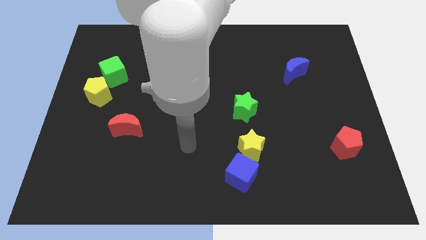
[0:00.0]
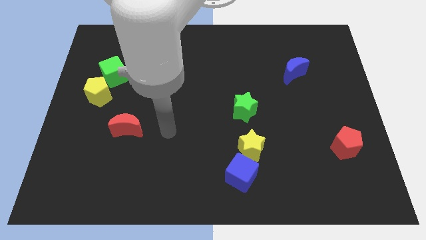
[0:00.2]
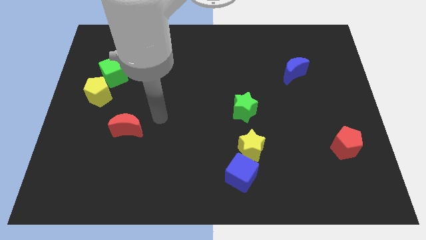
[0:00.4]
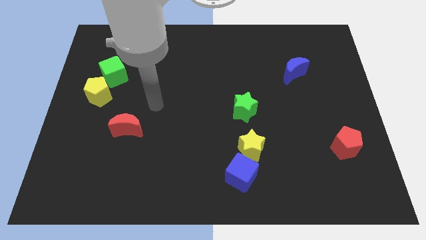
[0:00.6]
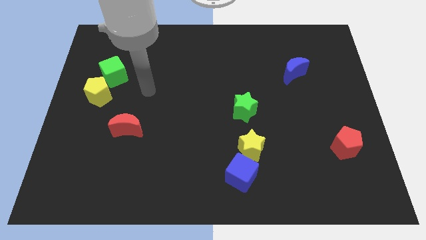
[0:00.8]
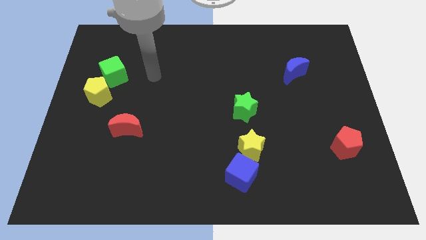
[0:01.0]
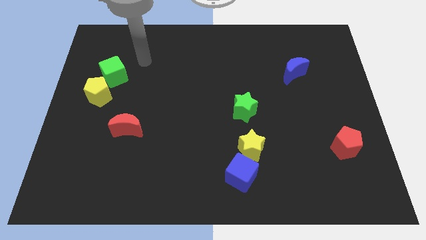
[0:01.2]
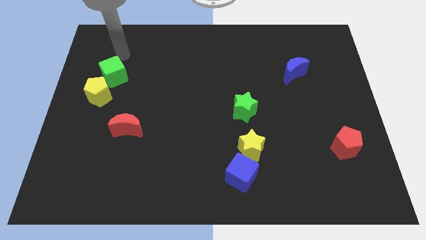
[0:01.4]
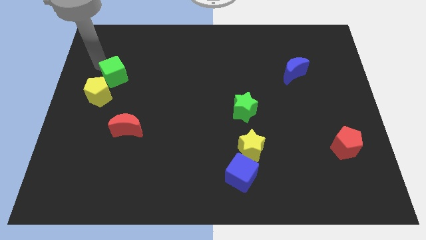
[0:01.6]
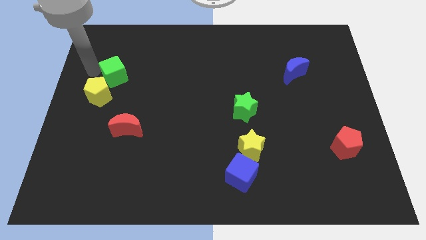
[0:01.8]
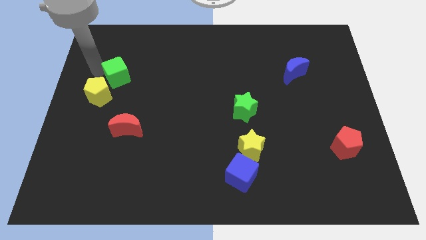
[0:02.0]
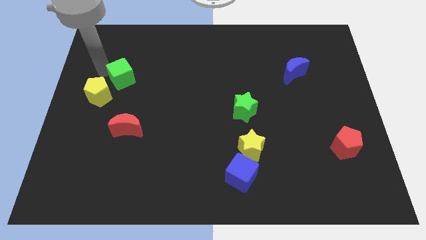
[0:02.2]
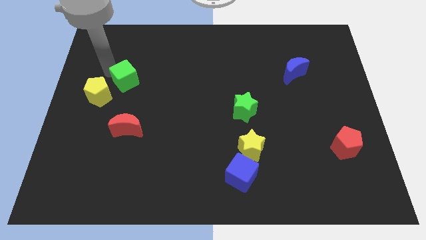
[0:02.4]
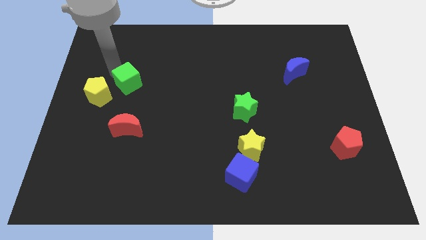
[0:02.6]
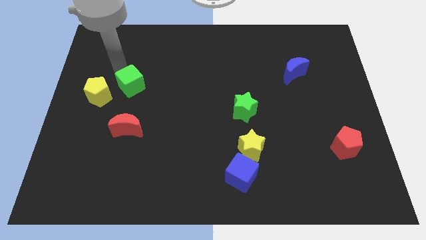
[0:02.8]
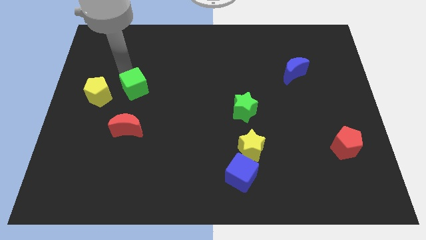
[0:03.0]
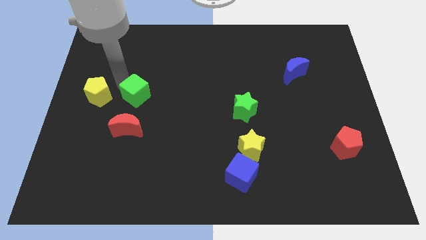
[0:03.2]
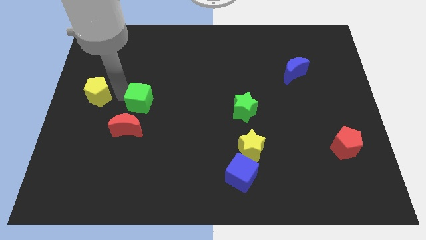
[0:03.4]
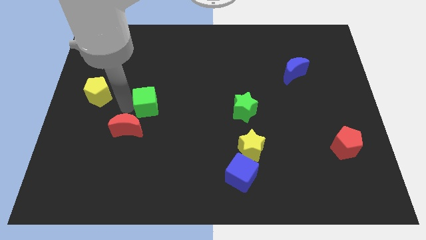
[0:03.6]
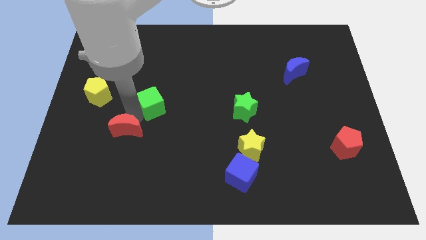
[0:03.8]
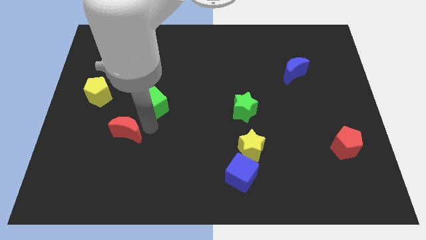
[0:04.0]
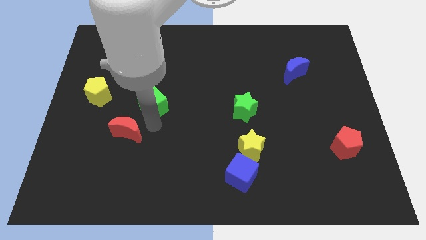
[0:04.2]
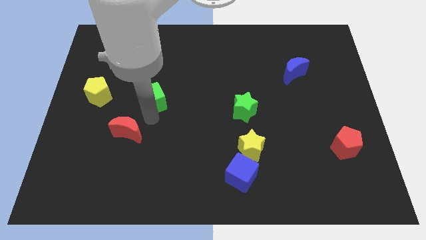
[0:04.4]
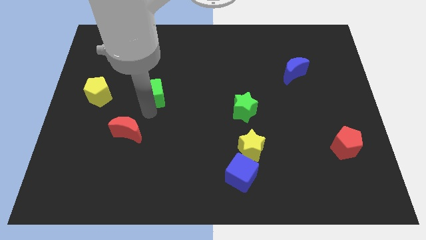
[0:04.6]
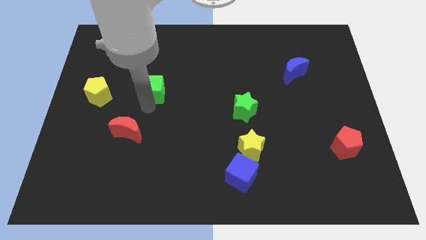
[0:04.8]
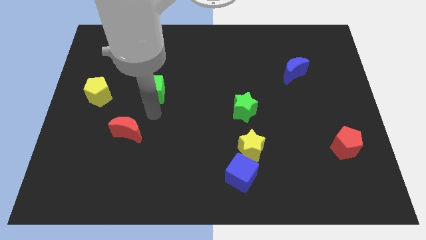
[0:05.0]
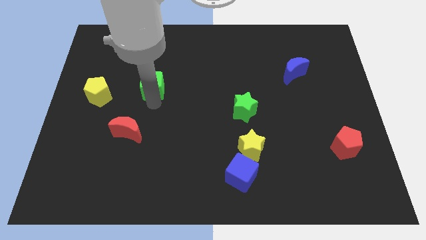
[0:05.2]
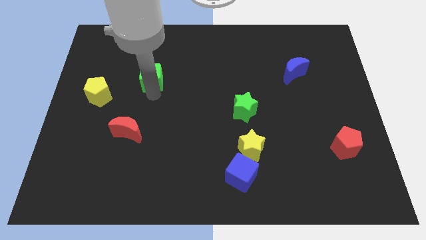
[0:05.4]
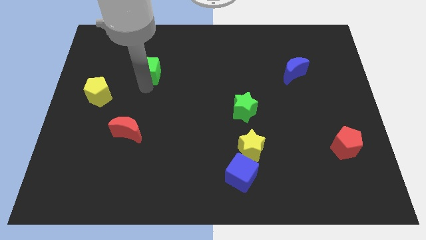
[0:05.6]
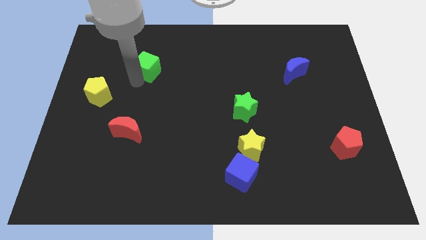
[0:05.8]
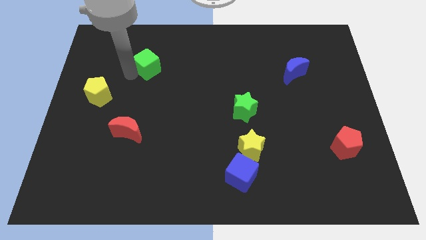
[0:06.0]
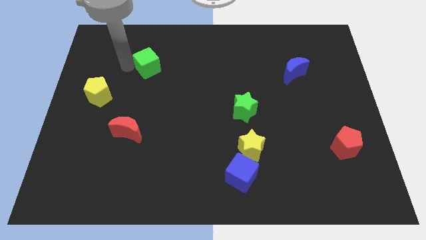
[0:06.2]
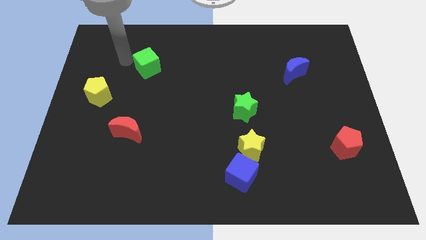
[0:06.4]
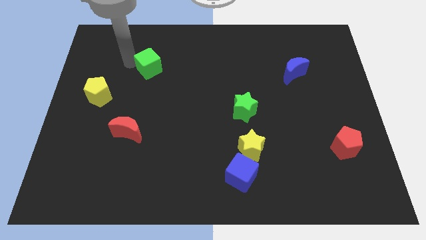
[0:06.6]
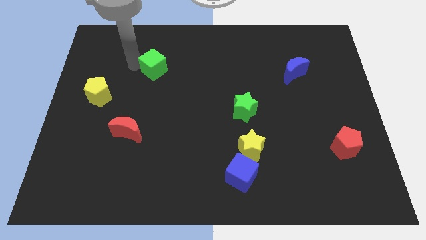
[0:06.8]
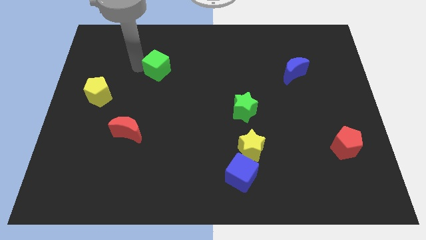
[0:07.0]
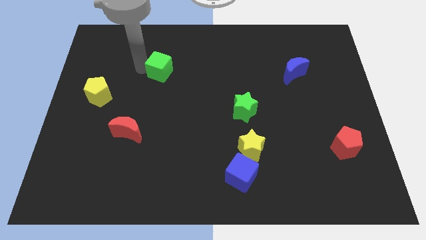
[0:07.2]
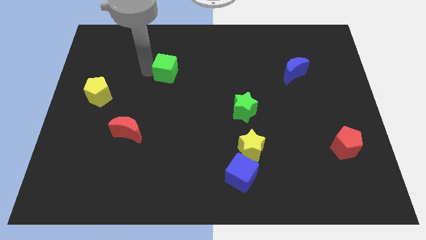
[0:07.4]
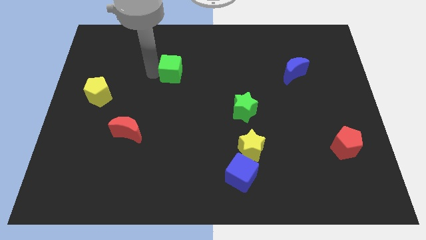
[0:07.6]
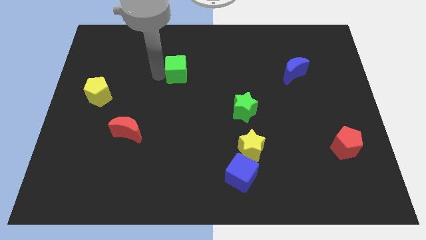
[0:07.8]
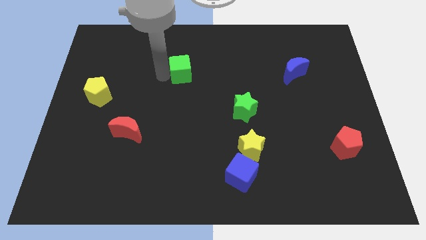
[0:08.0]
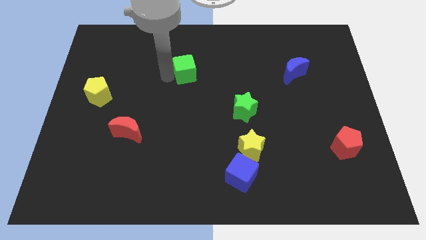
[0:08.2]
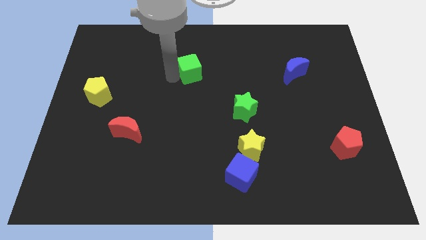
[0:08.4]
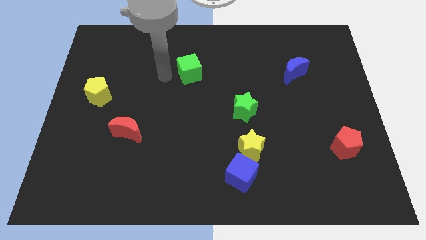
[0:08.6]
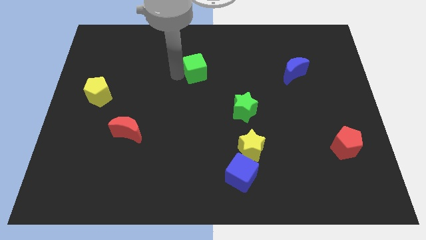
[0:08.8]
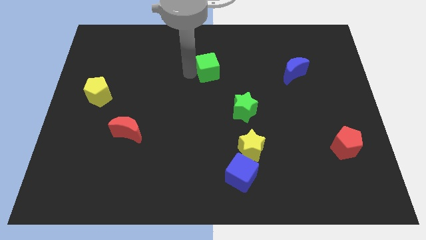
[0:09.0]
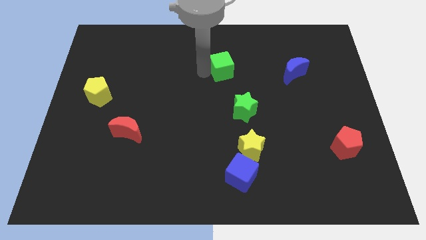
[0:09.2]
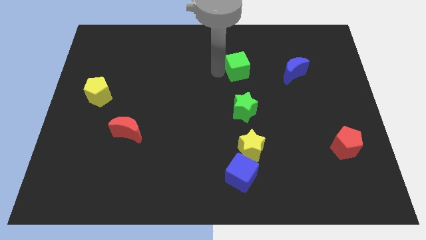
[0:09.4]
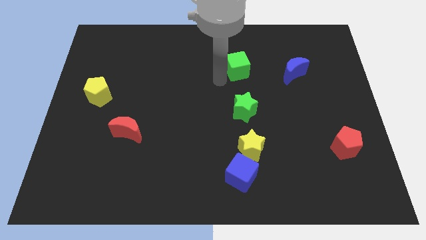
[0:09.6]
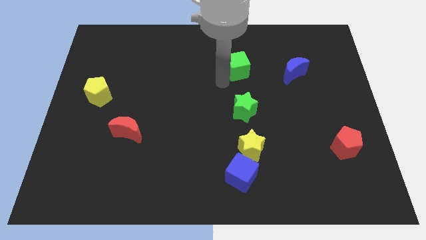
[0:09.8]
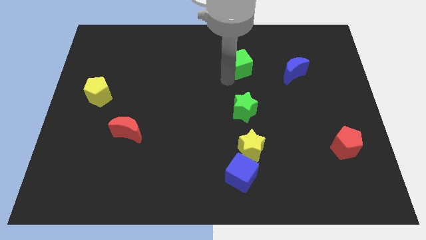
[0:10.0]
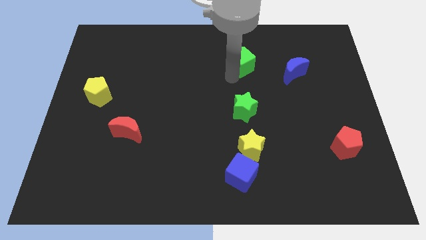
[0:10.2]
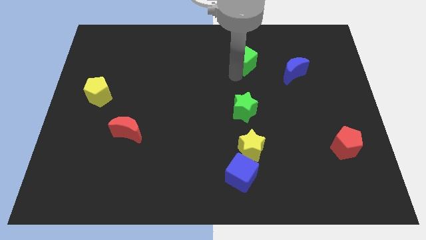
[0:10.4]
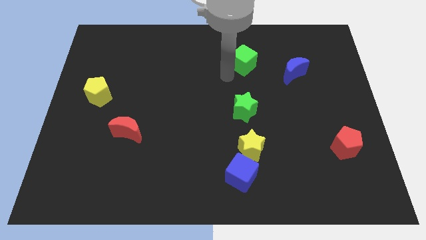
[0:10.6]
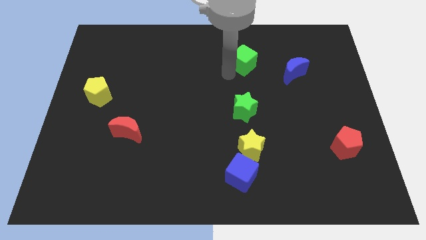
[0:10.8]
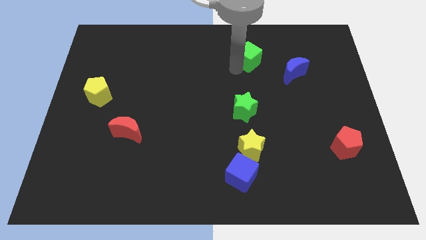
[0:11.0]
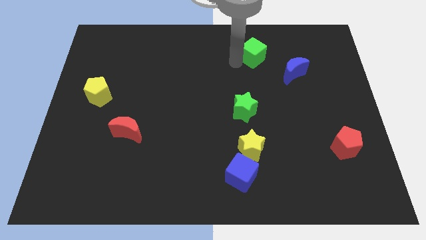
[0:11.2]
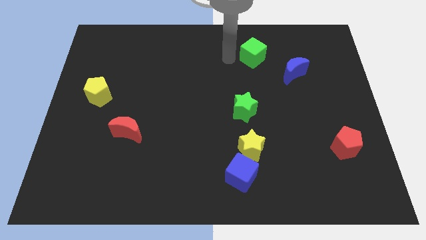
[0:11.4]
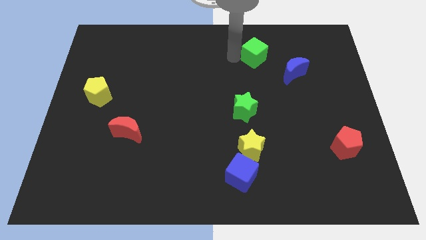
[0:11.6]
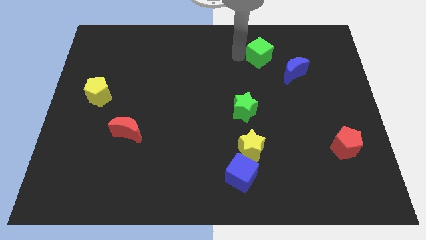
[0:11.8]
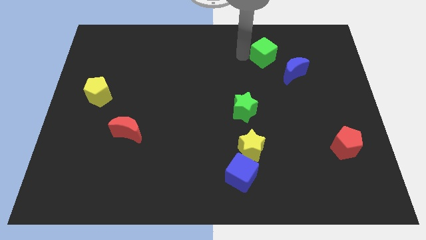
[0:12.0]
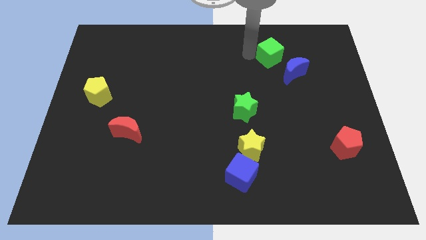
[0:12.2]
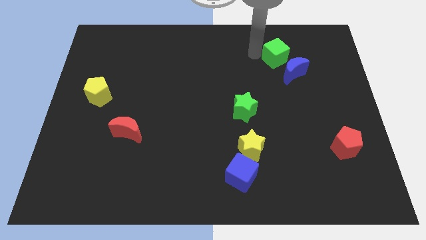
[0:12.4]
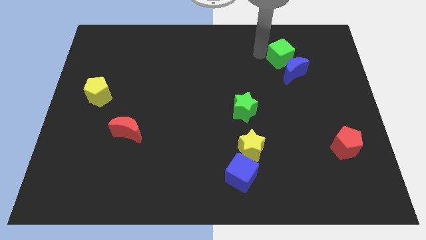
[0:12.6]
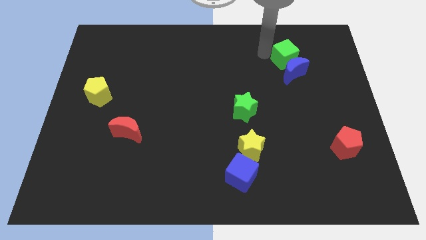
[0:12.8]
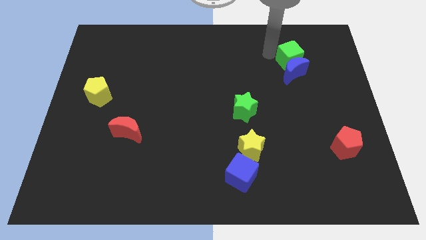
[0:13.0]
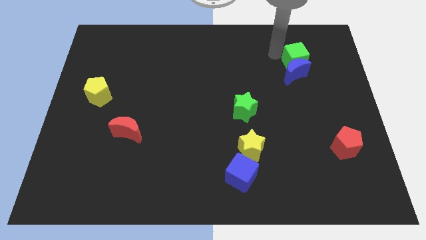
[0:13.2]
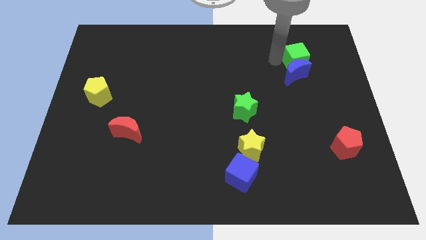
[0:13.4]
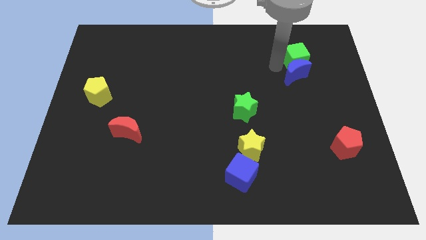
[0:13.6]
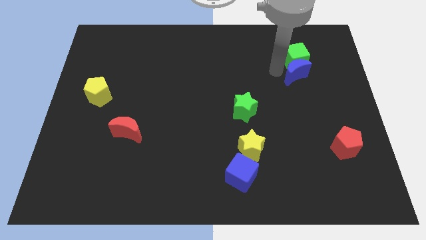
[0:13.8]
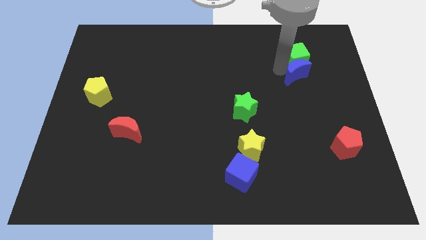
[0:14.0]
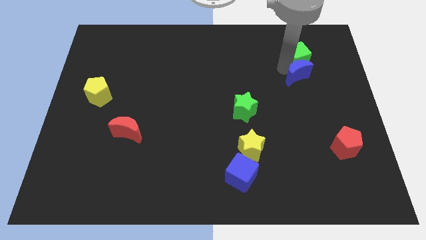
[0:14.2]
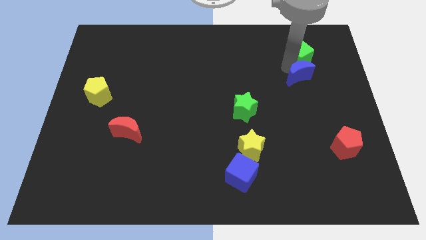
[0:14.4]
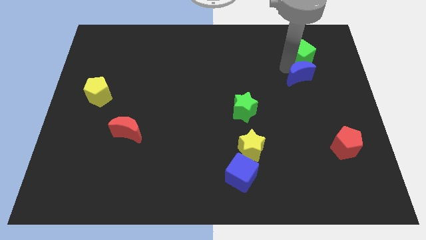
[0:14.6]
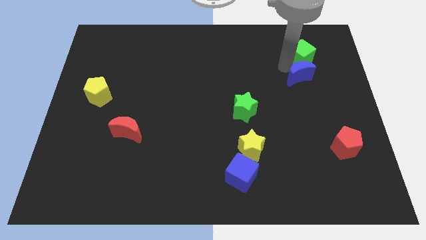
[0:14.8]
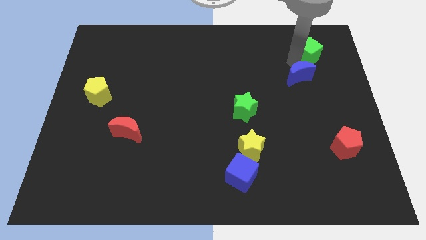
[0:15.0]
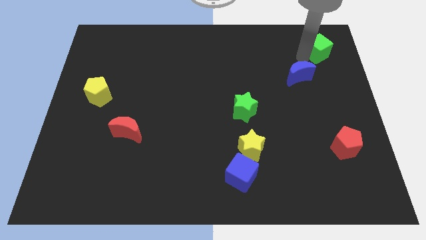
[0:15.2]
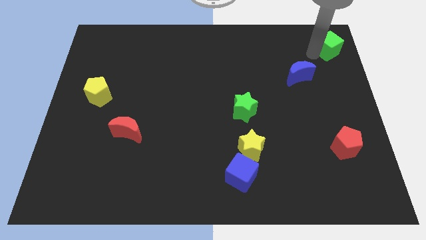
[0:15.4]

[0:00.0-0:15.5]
slide the green cube to the top right
